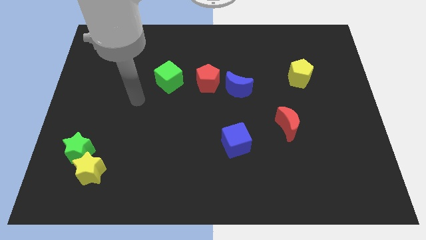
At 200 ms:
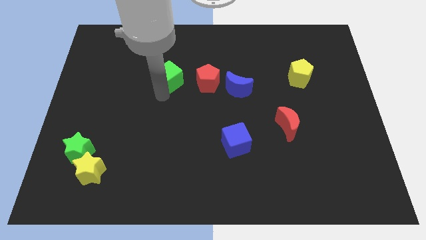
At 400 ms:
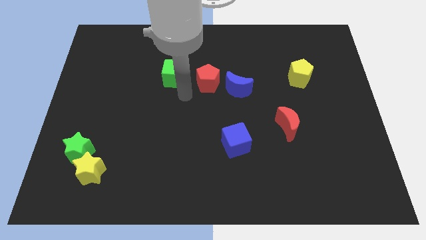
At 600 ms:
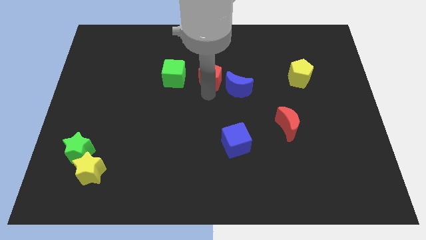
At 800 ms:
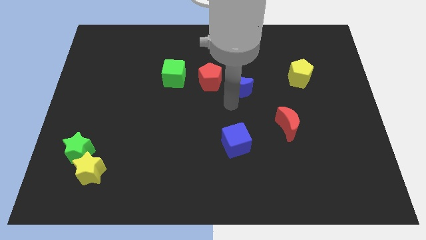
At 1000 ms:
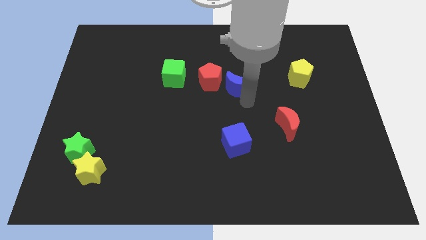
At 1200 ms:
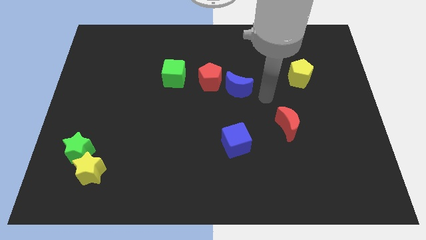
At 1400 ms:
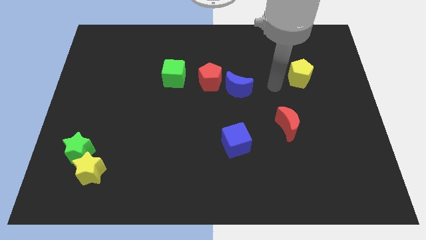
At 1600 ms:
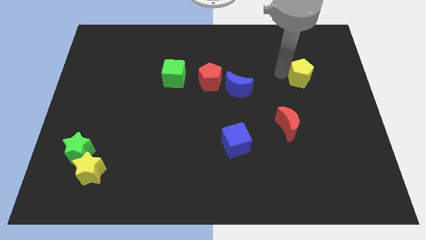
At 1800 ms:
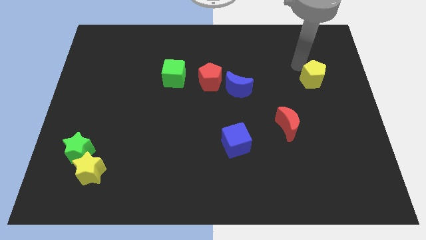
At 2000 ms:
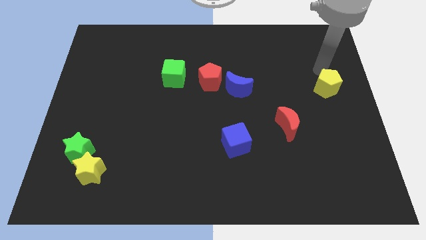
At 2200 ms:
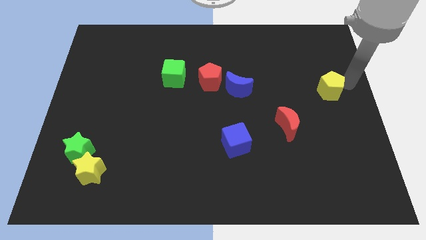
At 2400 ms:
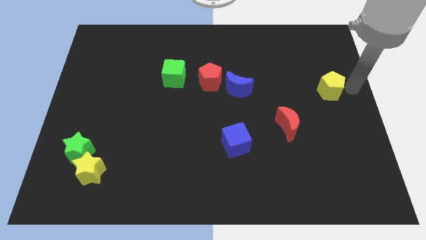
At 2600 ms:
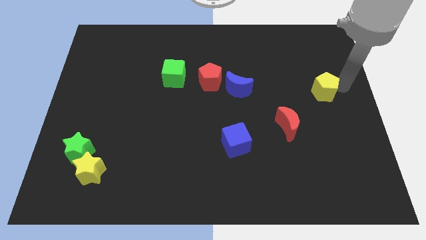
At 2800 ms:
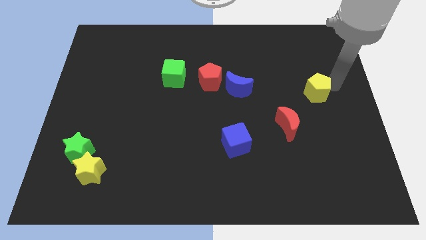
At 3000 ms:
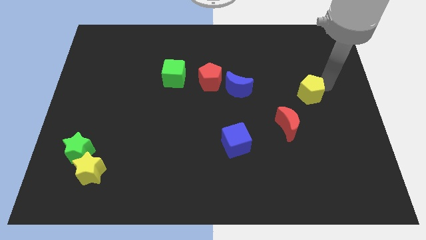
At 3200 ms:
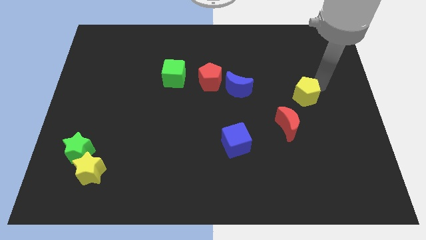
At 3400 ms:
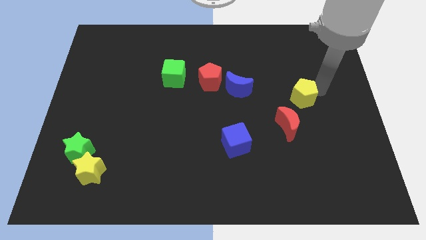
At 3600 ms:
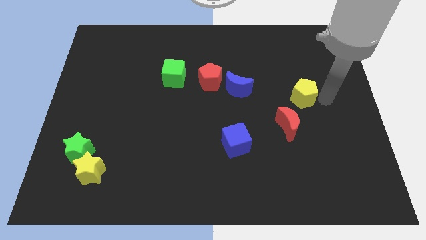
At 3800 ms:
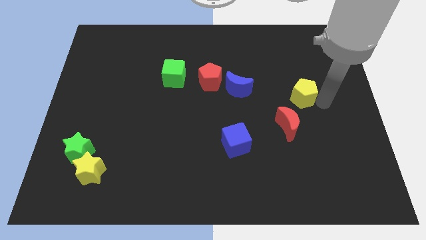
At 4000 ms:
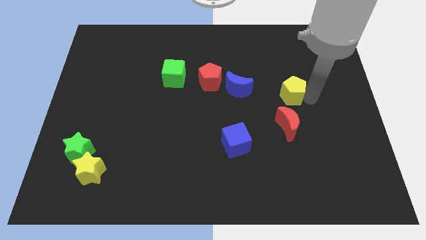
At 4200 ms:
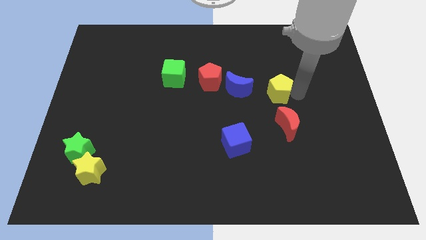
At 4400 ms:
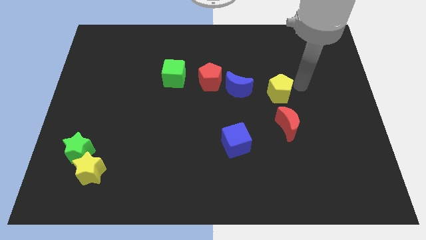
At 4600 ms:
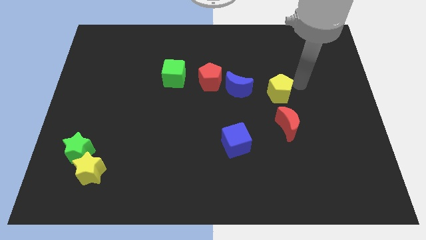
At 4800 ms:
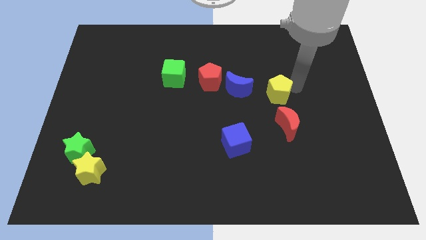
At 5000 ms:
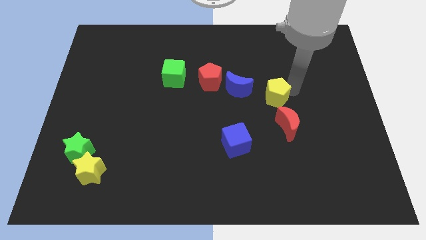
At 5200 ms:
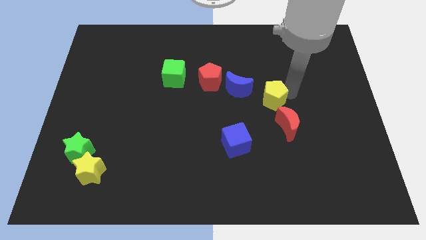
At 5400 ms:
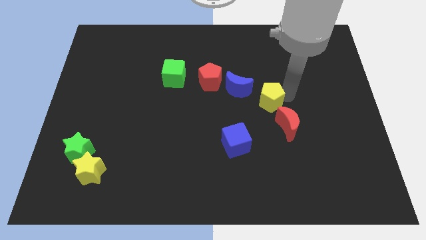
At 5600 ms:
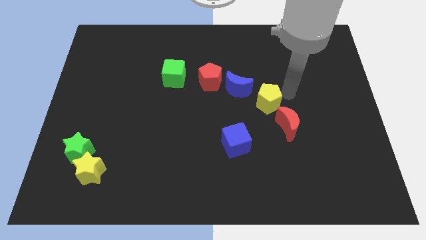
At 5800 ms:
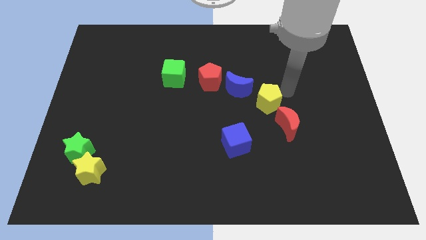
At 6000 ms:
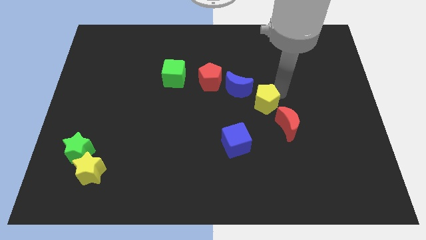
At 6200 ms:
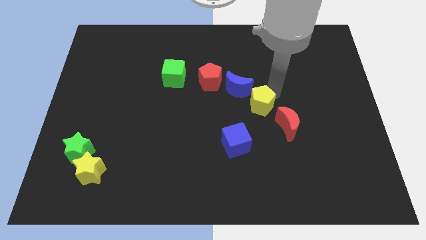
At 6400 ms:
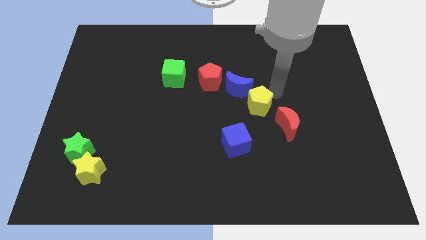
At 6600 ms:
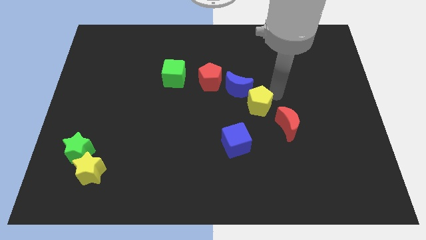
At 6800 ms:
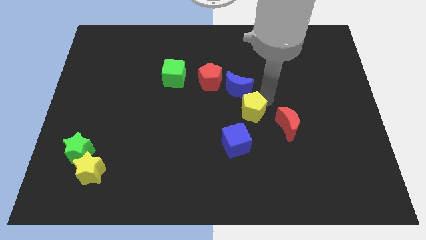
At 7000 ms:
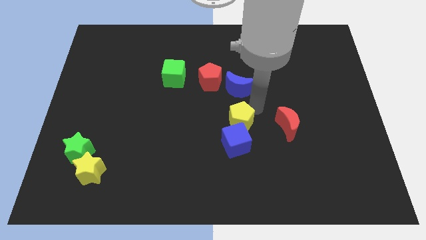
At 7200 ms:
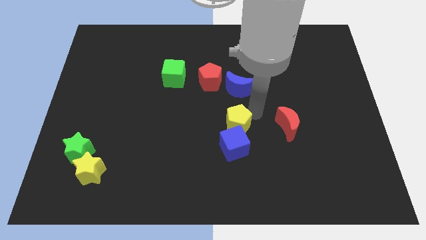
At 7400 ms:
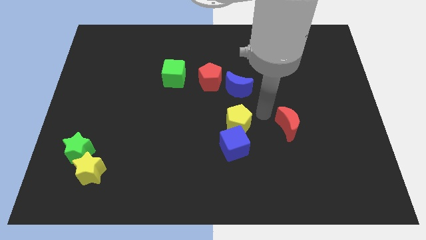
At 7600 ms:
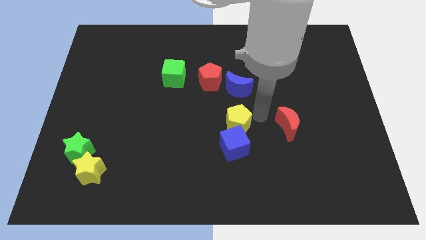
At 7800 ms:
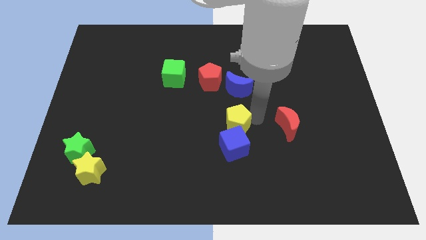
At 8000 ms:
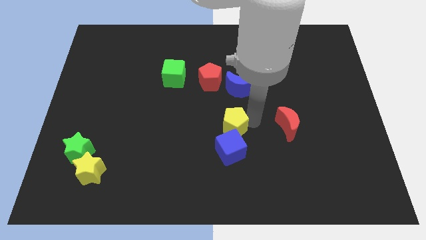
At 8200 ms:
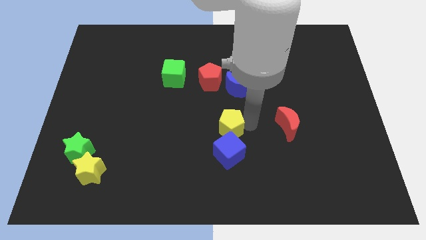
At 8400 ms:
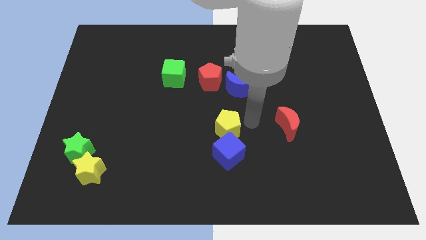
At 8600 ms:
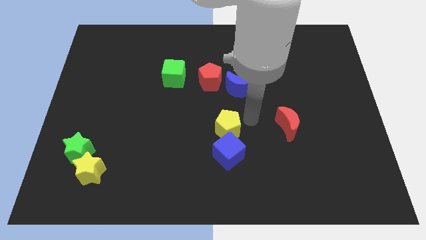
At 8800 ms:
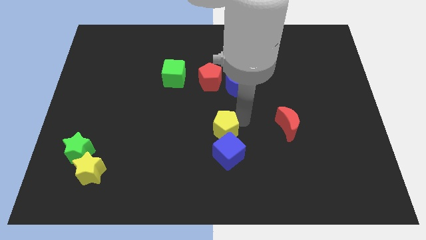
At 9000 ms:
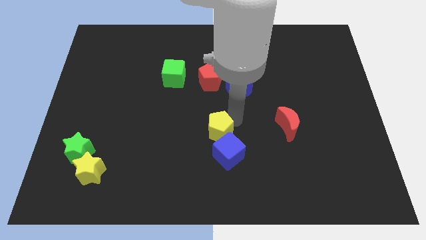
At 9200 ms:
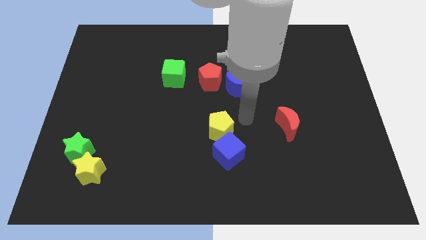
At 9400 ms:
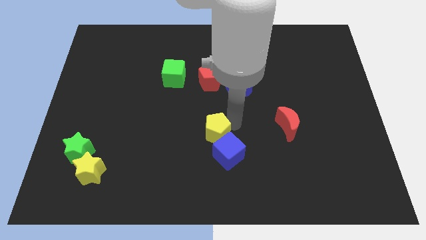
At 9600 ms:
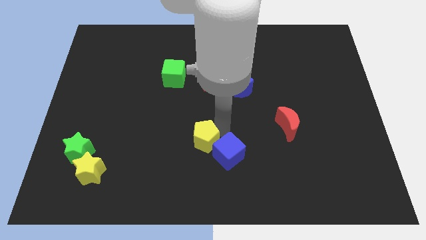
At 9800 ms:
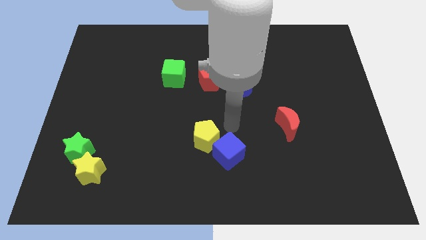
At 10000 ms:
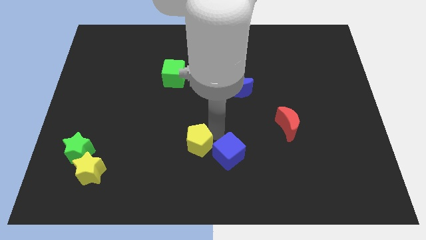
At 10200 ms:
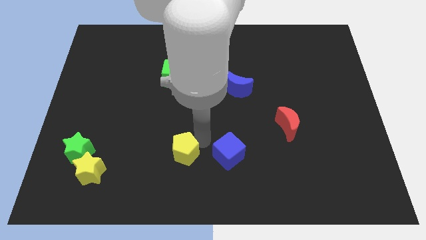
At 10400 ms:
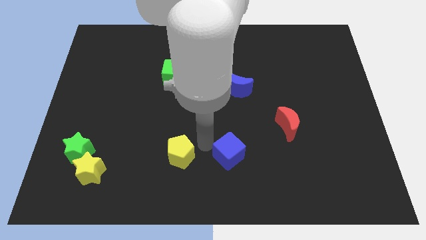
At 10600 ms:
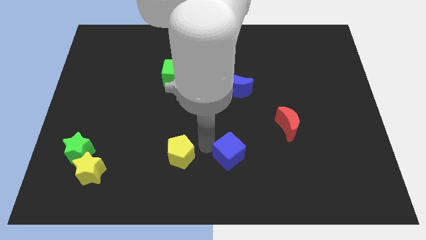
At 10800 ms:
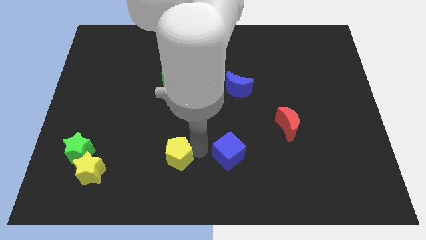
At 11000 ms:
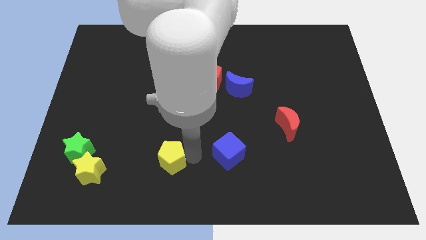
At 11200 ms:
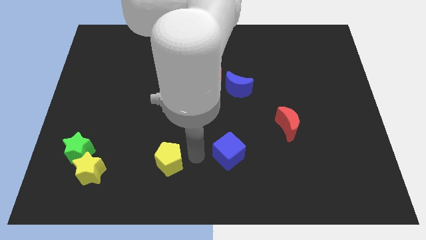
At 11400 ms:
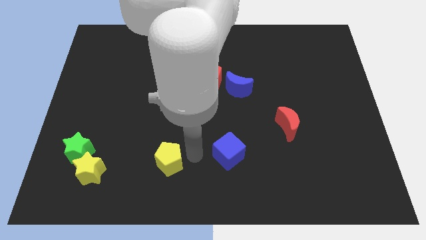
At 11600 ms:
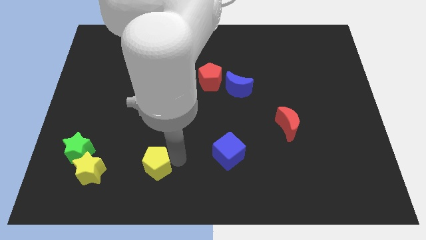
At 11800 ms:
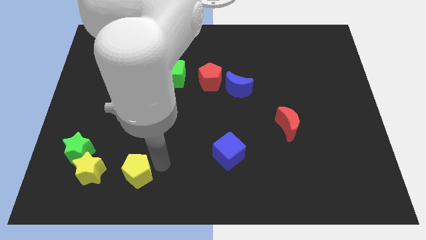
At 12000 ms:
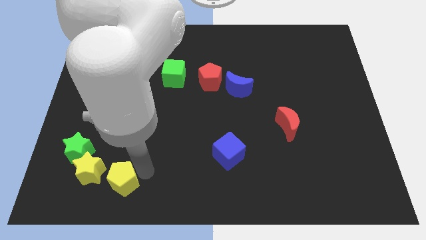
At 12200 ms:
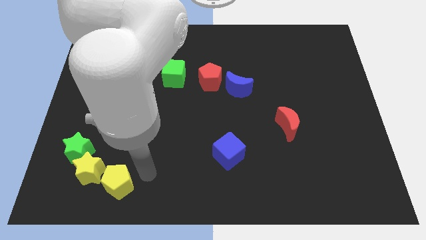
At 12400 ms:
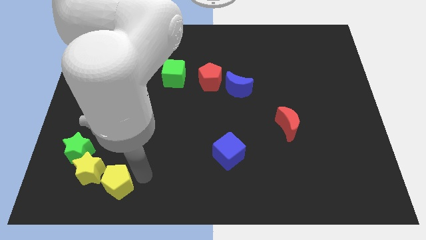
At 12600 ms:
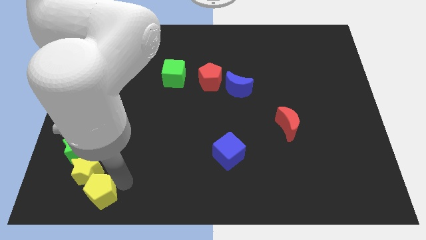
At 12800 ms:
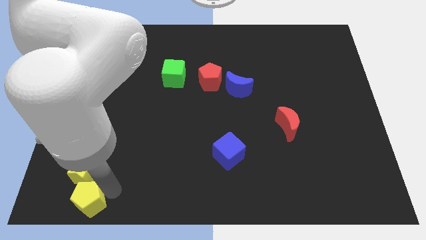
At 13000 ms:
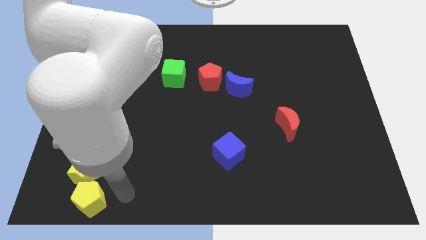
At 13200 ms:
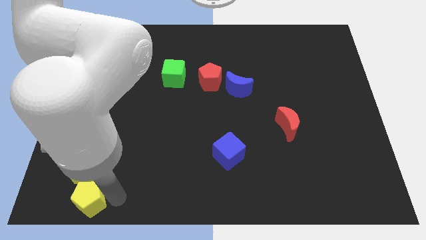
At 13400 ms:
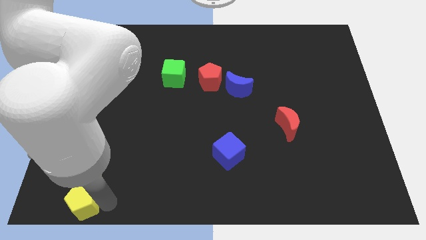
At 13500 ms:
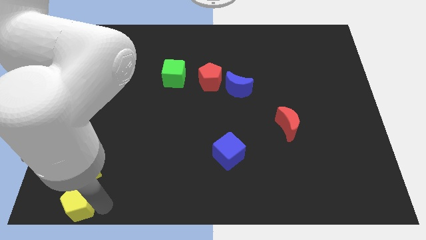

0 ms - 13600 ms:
move the yellow pentagon to the bottom left
